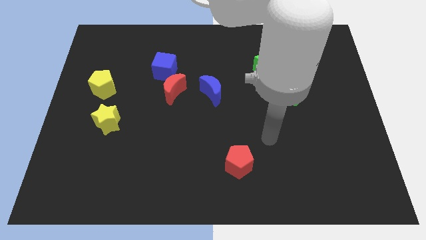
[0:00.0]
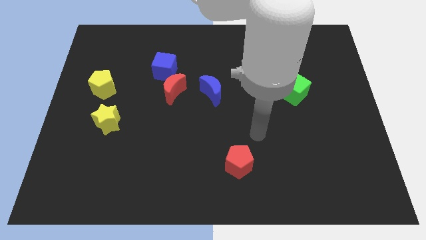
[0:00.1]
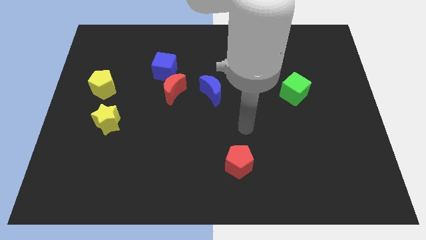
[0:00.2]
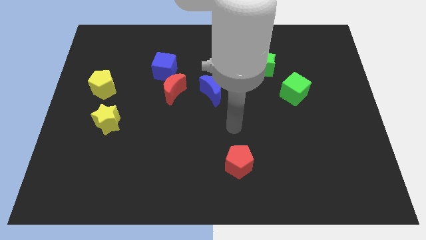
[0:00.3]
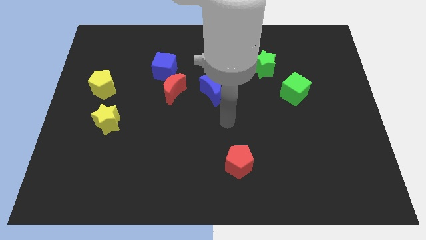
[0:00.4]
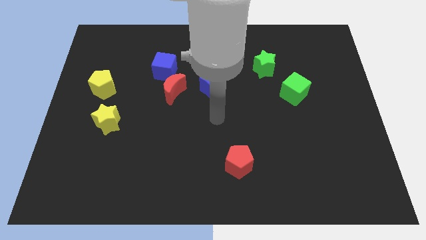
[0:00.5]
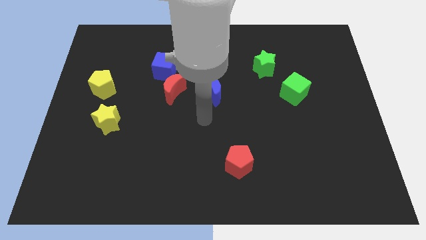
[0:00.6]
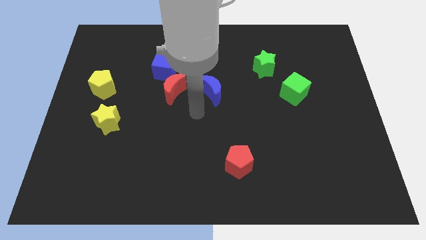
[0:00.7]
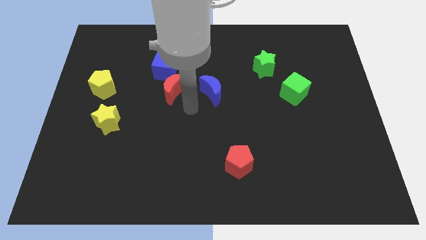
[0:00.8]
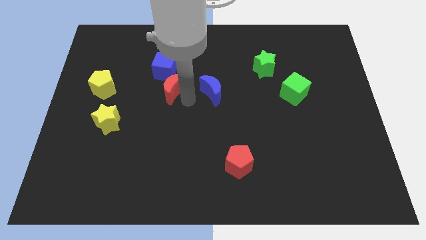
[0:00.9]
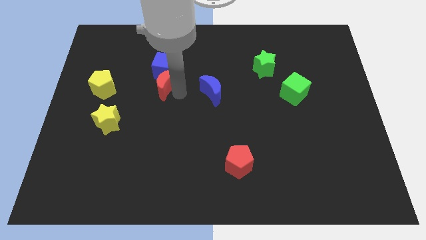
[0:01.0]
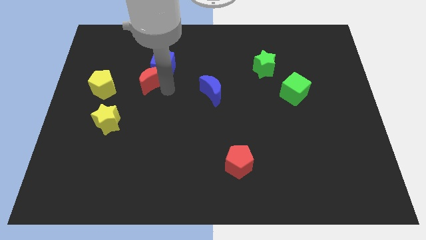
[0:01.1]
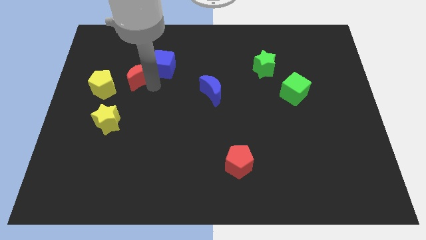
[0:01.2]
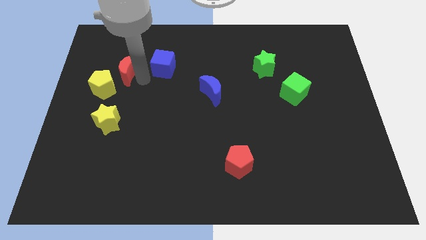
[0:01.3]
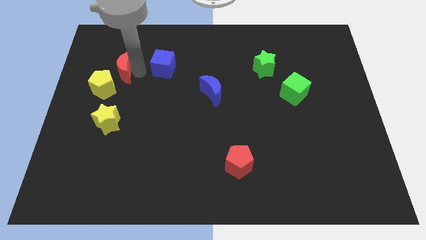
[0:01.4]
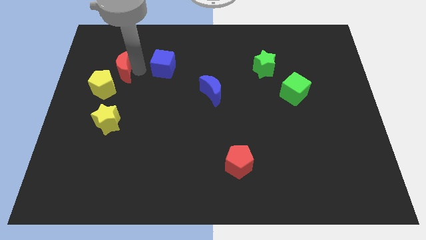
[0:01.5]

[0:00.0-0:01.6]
pull the blue cube apart from the red moon

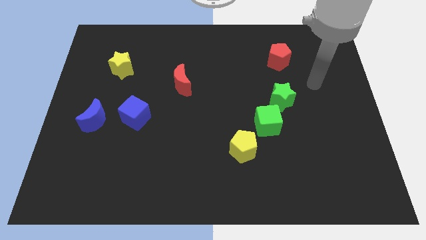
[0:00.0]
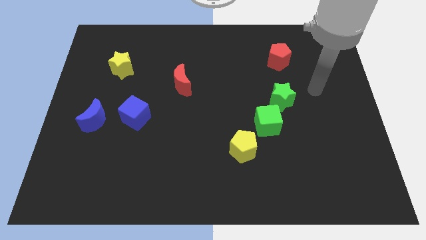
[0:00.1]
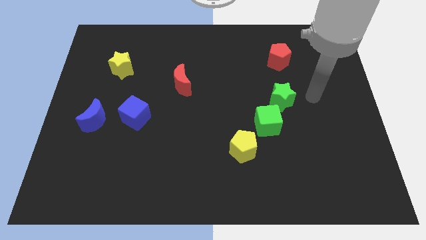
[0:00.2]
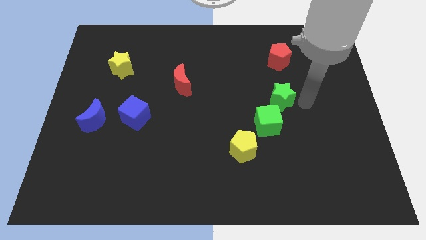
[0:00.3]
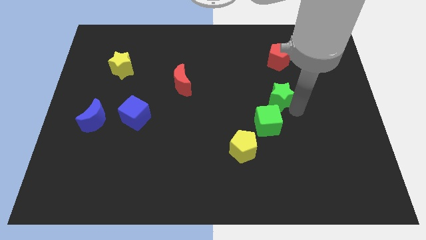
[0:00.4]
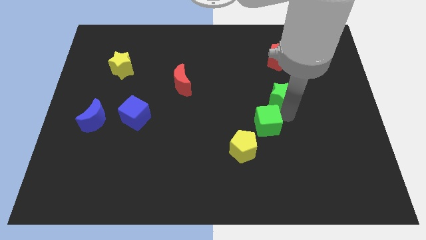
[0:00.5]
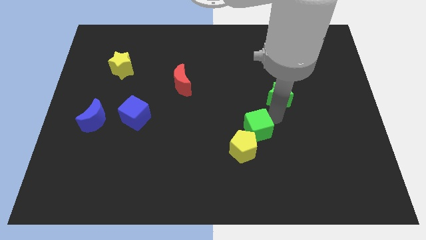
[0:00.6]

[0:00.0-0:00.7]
move the green star away from the green cube

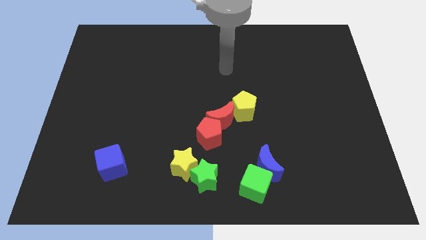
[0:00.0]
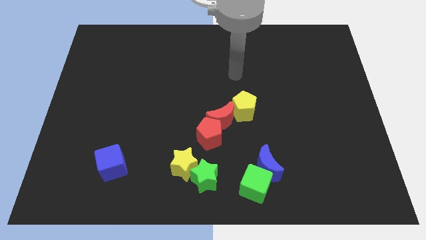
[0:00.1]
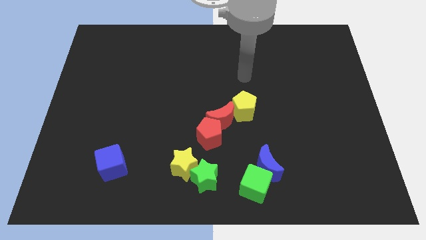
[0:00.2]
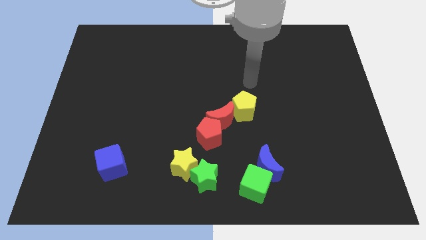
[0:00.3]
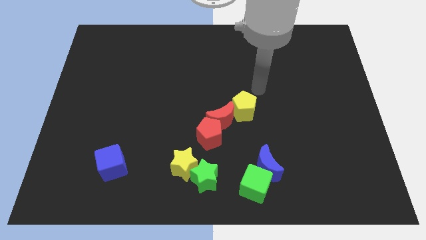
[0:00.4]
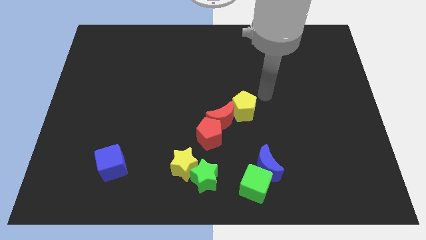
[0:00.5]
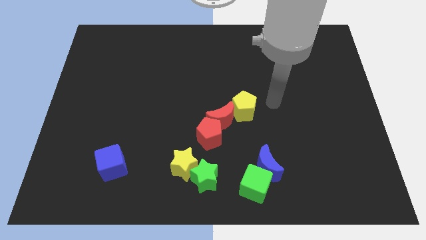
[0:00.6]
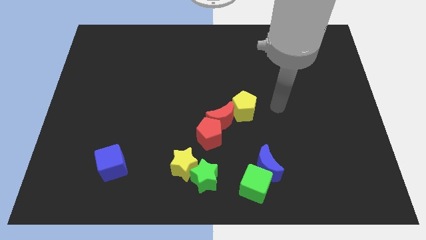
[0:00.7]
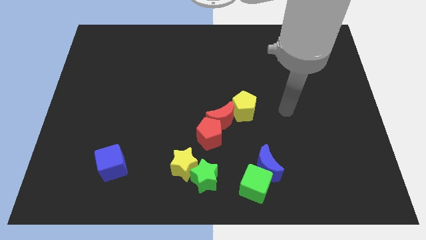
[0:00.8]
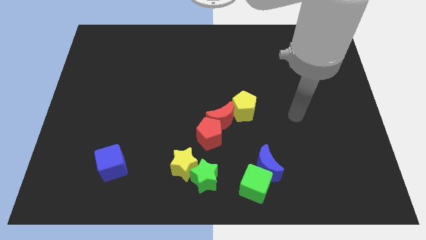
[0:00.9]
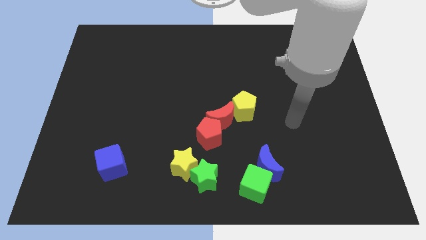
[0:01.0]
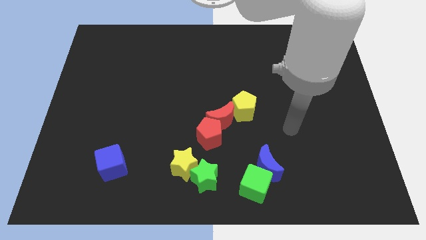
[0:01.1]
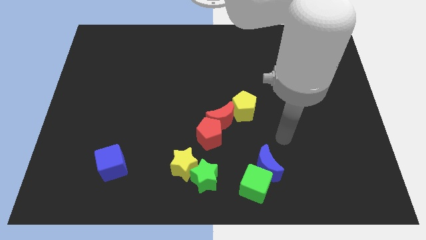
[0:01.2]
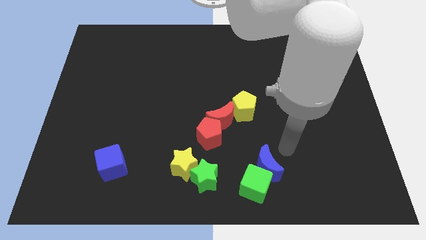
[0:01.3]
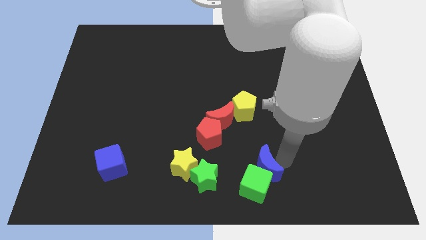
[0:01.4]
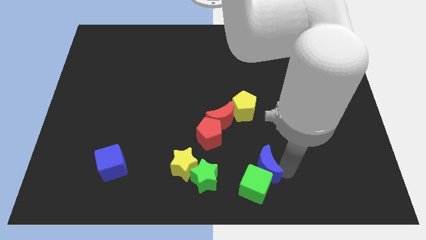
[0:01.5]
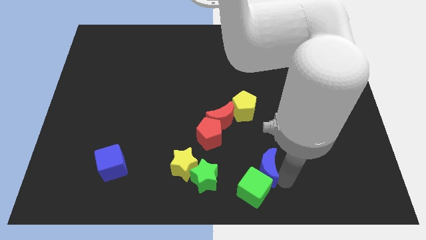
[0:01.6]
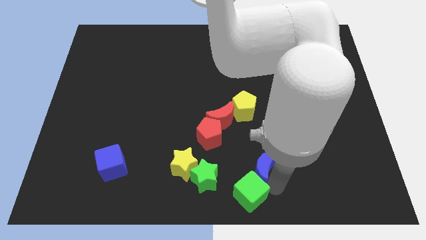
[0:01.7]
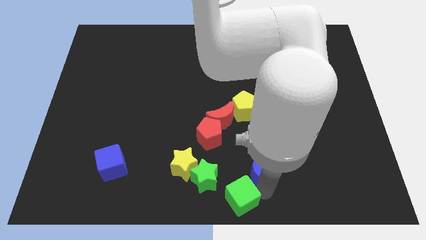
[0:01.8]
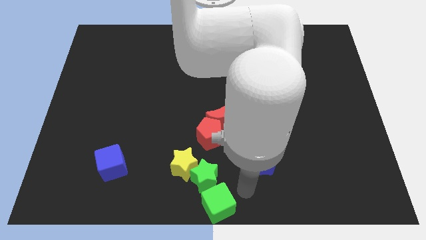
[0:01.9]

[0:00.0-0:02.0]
separate the blue moon from the green cube

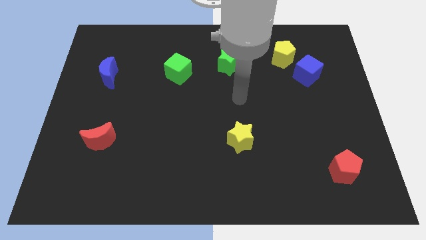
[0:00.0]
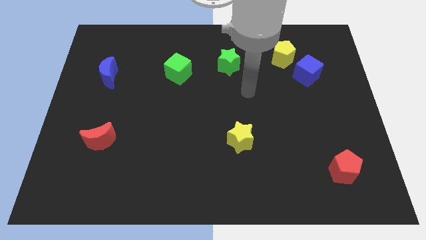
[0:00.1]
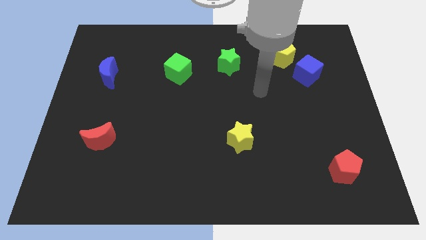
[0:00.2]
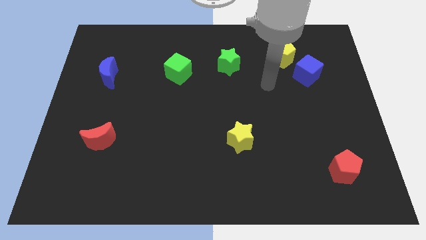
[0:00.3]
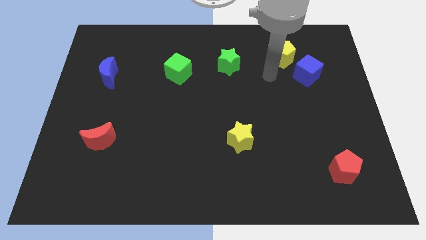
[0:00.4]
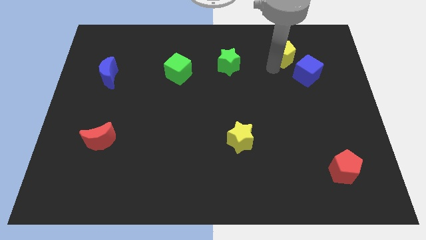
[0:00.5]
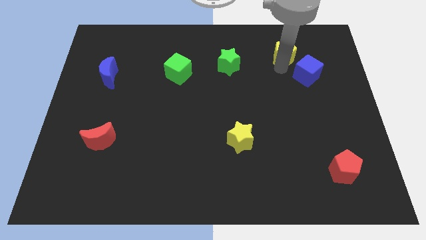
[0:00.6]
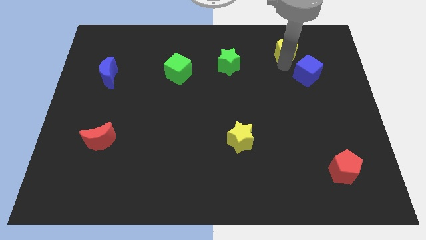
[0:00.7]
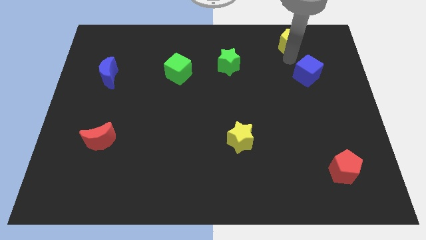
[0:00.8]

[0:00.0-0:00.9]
pull the blue cube apart from the yellow pentagon

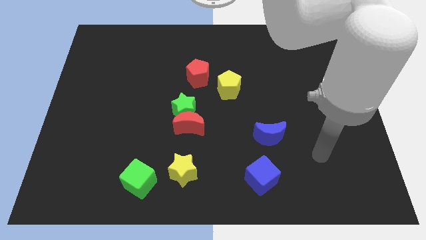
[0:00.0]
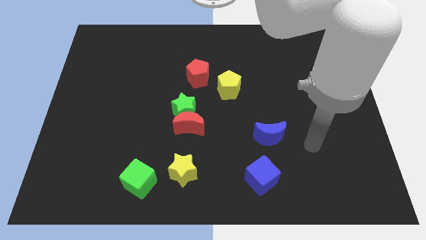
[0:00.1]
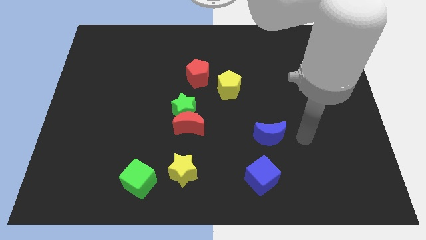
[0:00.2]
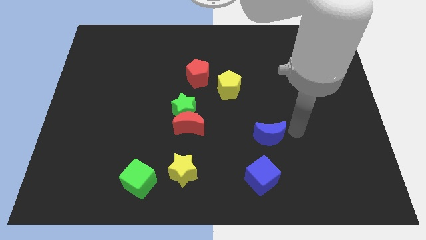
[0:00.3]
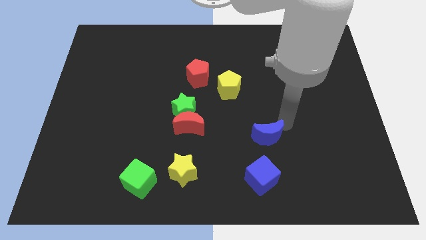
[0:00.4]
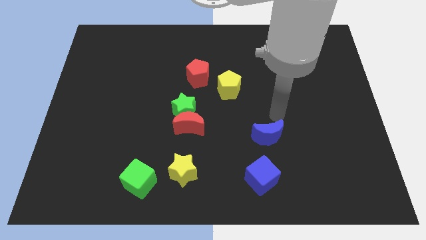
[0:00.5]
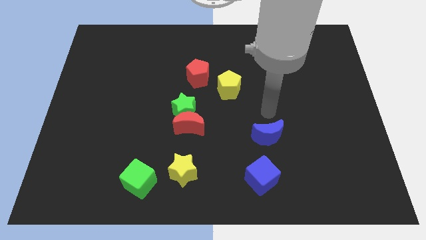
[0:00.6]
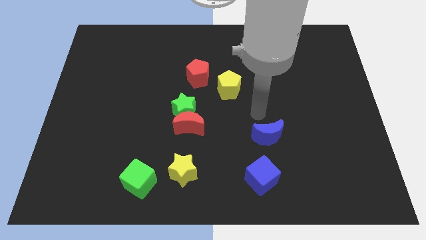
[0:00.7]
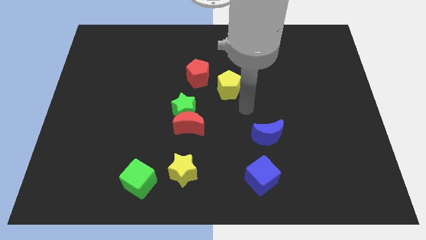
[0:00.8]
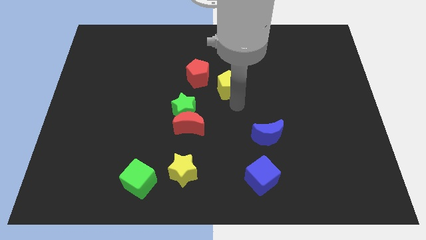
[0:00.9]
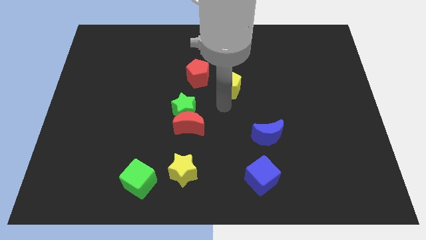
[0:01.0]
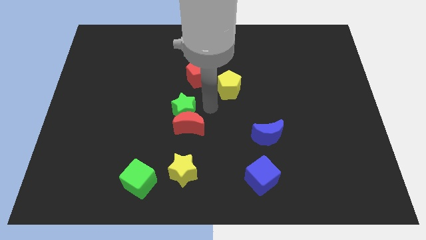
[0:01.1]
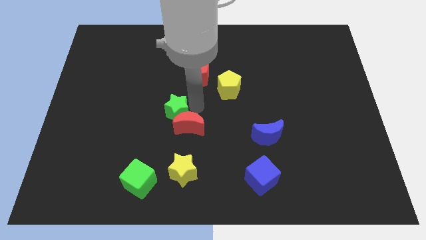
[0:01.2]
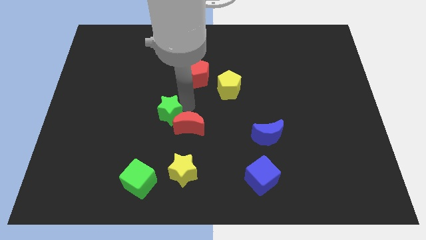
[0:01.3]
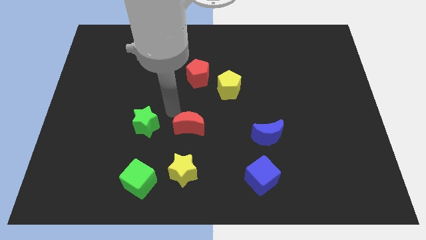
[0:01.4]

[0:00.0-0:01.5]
pull the red moon apart from the green star

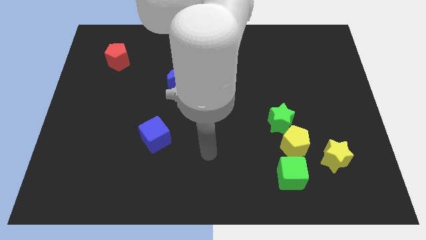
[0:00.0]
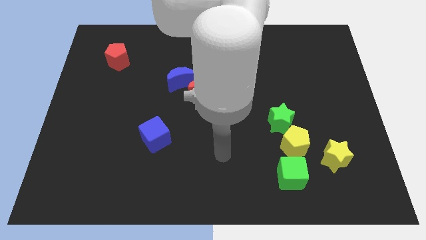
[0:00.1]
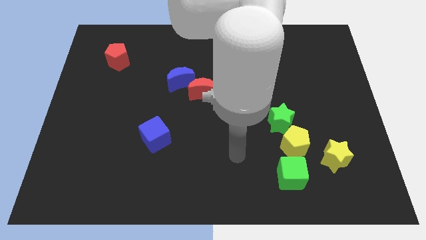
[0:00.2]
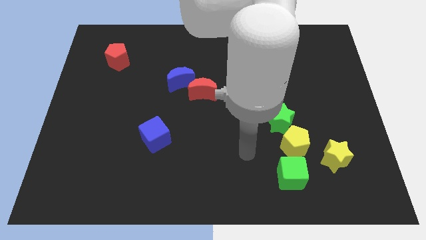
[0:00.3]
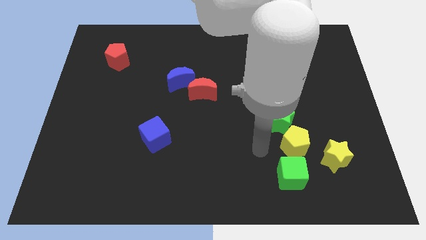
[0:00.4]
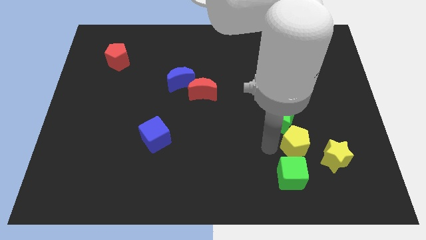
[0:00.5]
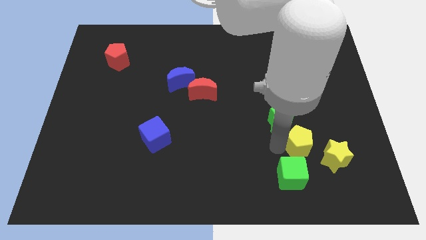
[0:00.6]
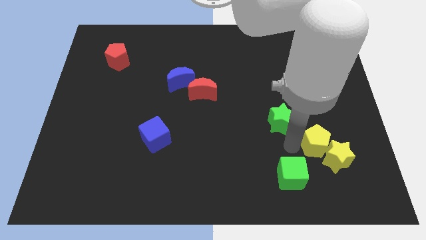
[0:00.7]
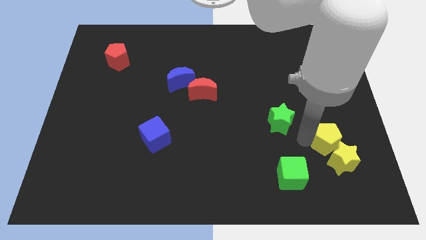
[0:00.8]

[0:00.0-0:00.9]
move the green star away from the yellow pentagon

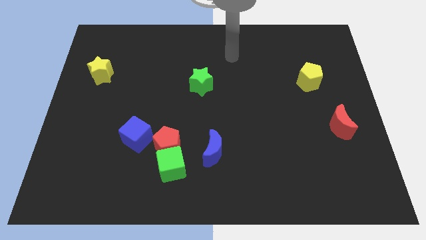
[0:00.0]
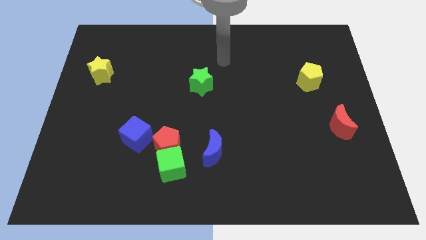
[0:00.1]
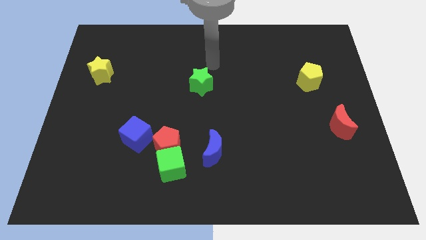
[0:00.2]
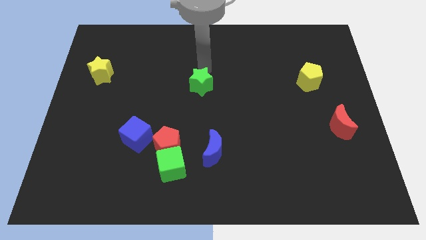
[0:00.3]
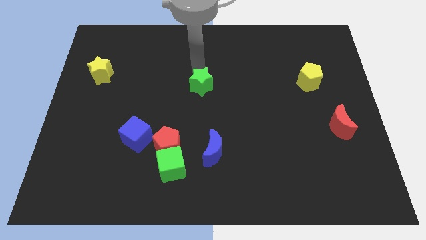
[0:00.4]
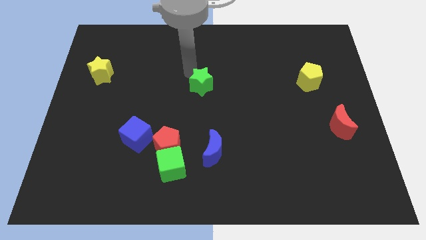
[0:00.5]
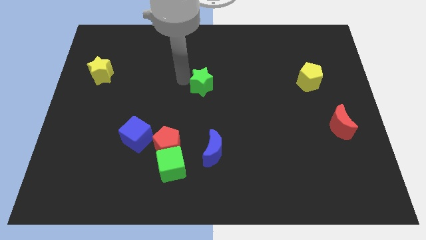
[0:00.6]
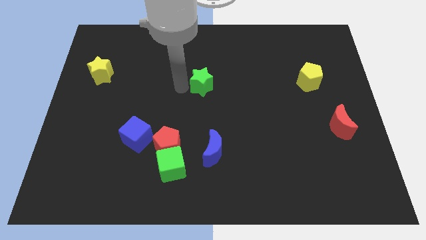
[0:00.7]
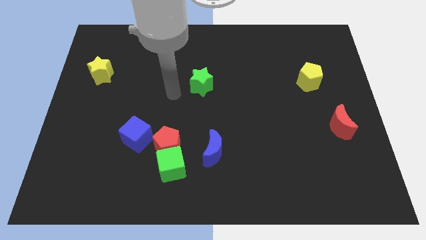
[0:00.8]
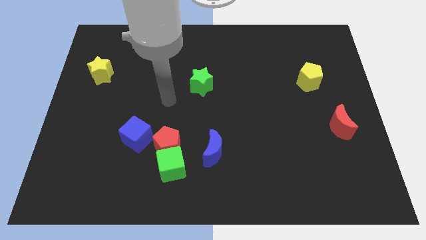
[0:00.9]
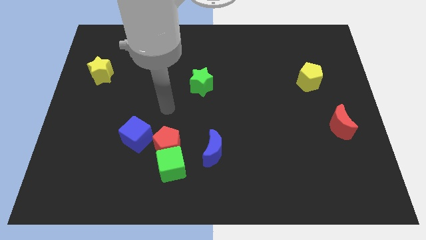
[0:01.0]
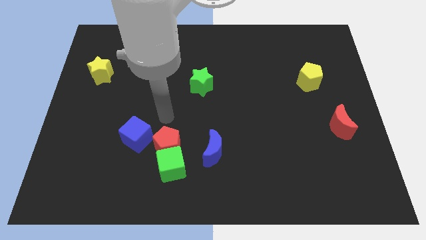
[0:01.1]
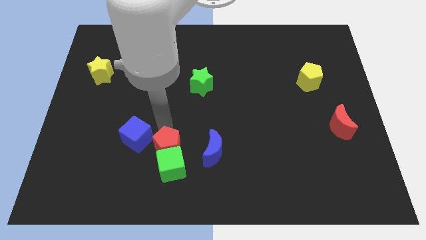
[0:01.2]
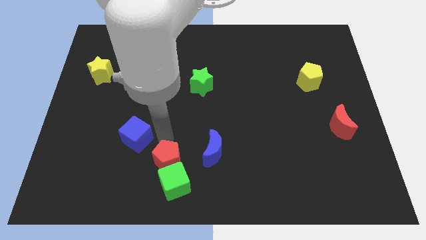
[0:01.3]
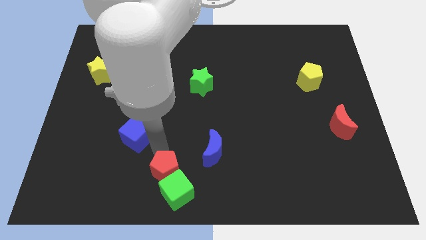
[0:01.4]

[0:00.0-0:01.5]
separate the blue cube from the red pentagon
